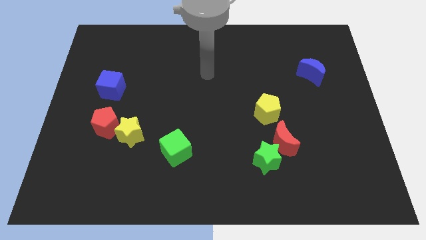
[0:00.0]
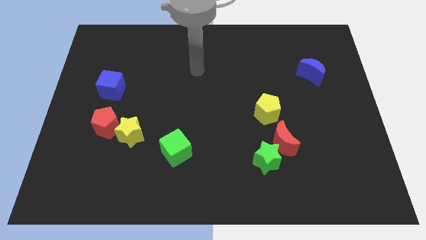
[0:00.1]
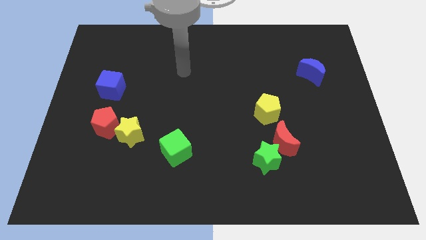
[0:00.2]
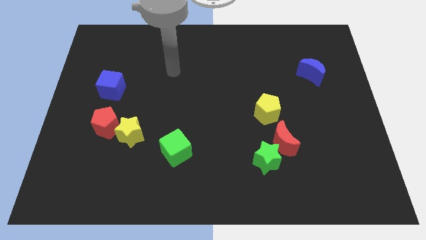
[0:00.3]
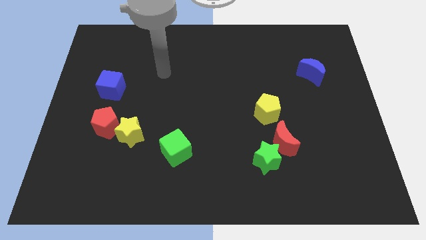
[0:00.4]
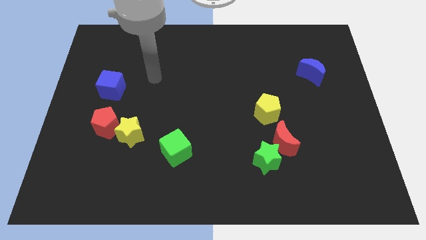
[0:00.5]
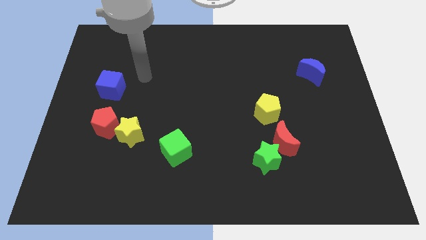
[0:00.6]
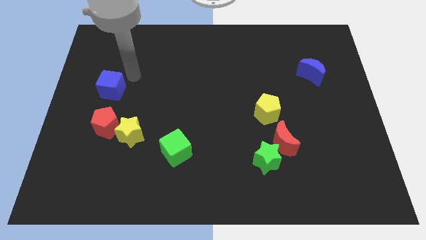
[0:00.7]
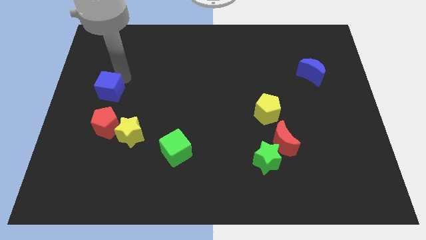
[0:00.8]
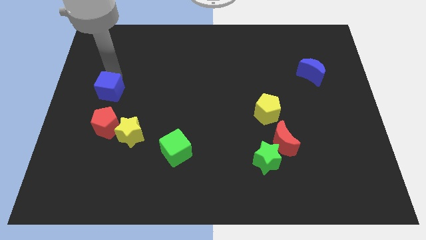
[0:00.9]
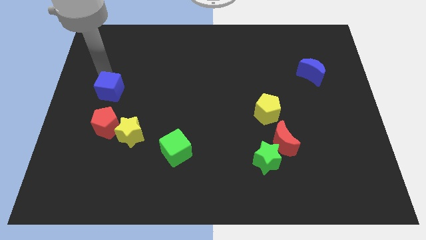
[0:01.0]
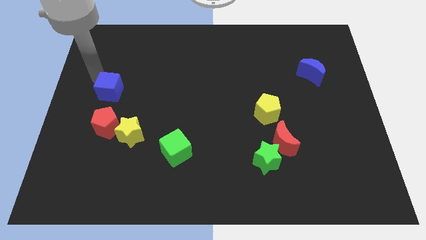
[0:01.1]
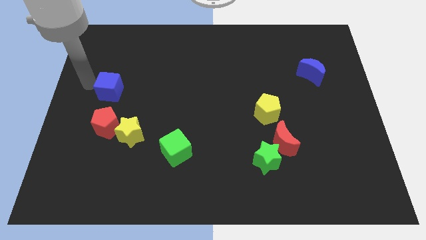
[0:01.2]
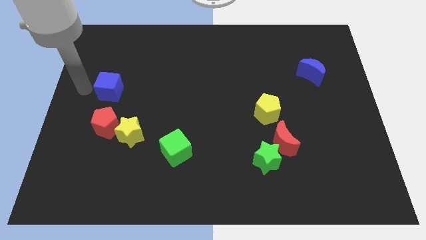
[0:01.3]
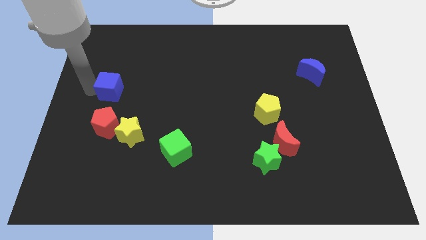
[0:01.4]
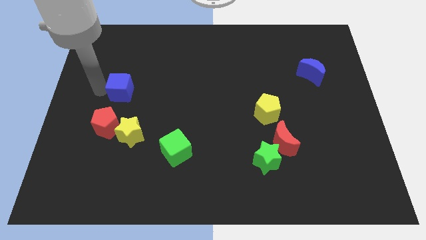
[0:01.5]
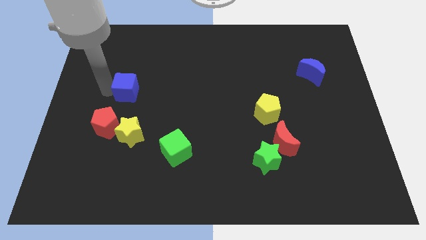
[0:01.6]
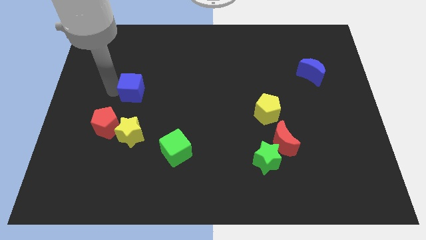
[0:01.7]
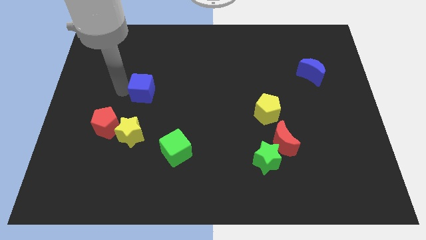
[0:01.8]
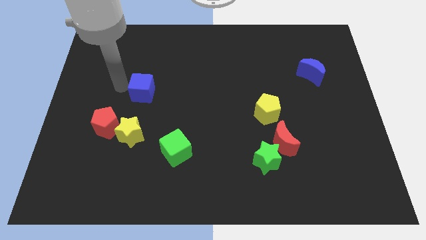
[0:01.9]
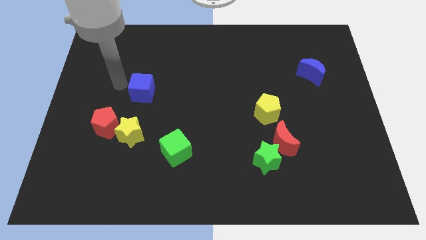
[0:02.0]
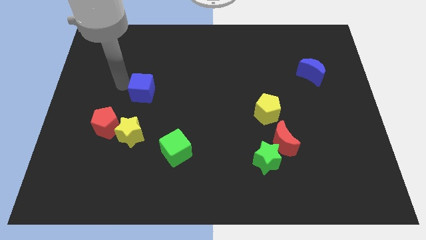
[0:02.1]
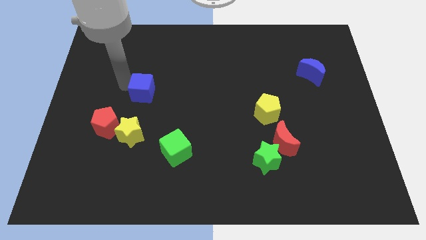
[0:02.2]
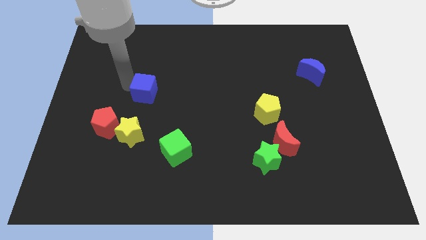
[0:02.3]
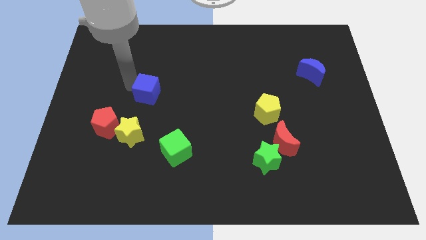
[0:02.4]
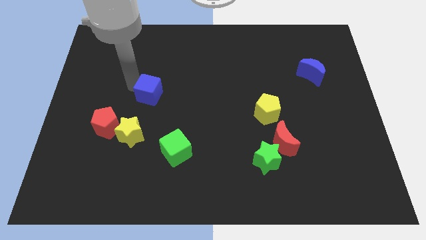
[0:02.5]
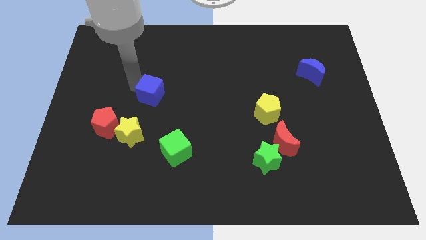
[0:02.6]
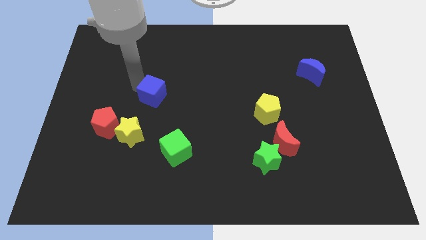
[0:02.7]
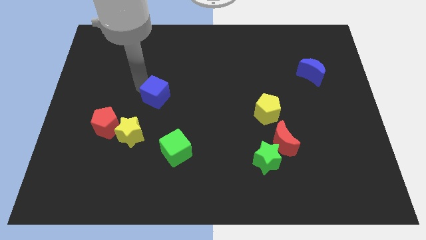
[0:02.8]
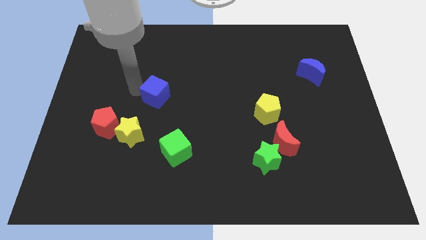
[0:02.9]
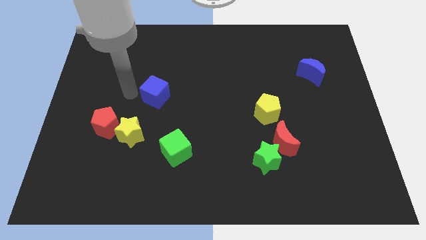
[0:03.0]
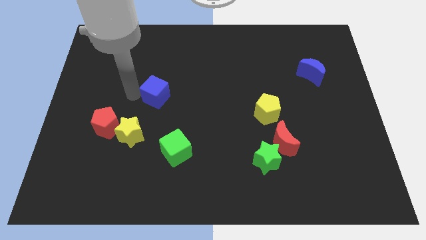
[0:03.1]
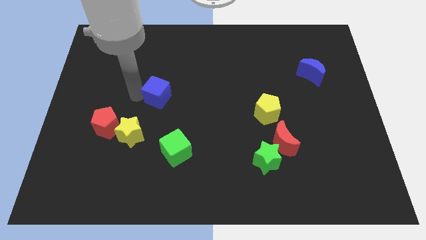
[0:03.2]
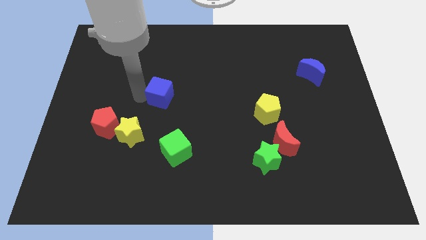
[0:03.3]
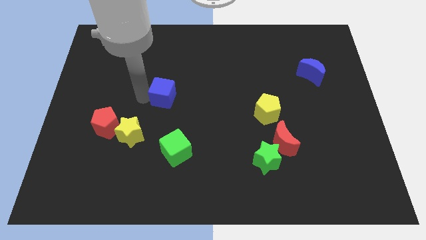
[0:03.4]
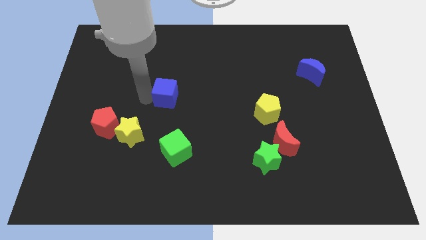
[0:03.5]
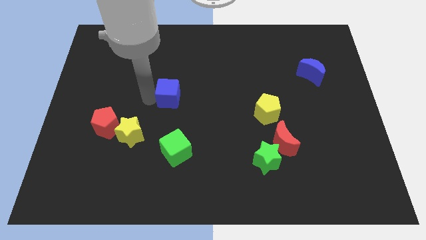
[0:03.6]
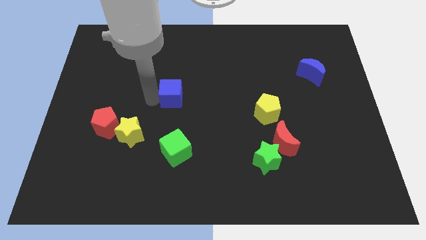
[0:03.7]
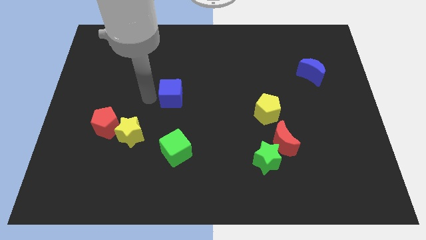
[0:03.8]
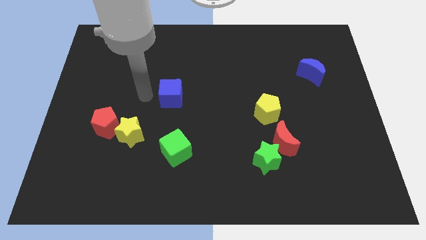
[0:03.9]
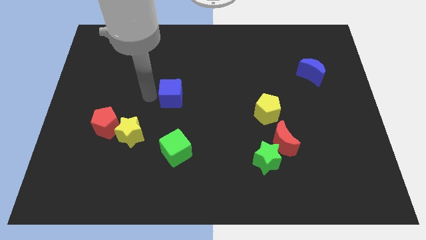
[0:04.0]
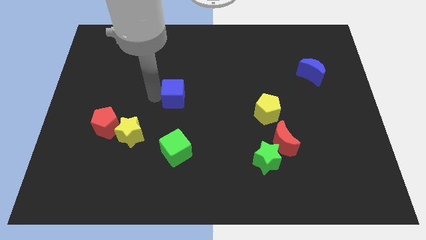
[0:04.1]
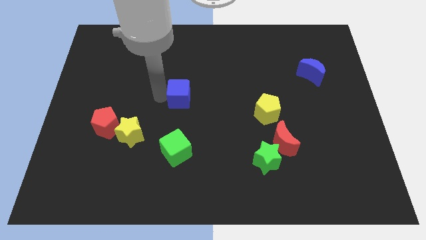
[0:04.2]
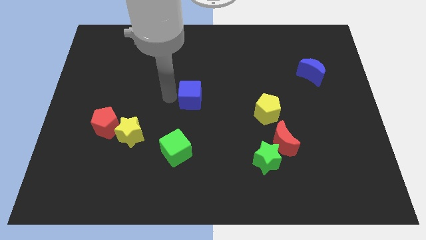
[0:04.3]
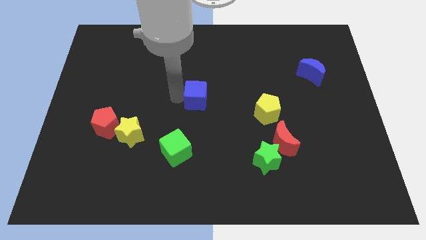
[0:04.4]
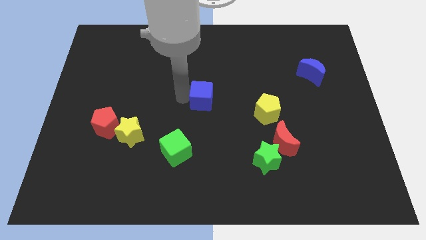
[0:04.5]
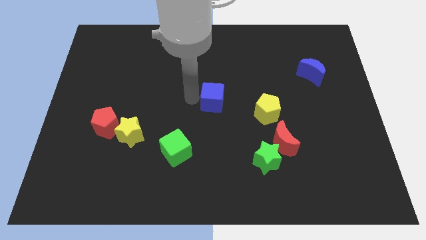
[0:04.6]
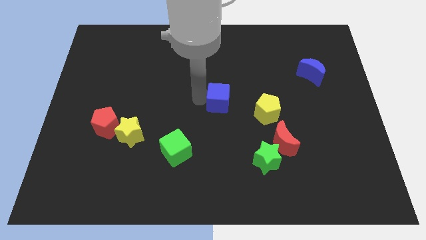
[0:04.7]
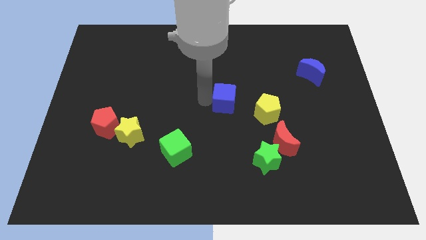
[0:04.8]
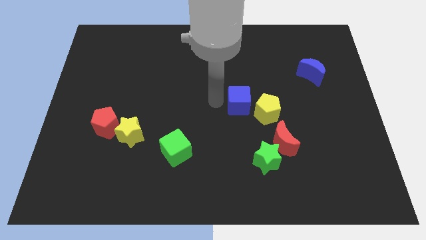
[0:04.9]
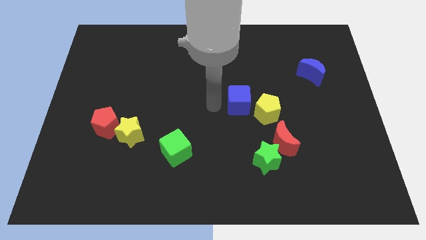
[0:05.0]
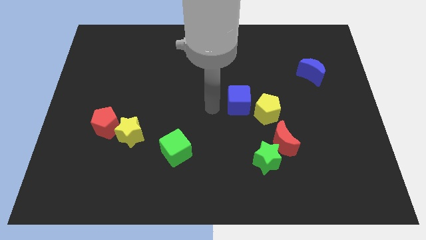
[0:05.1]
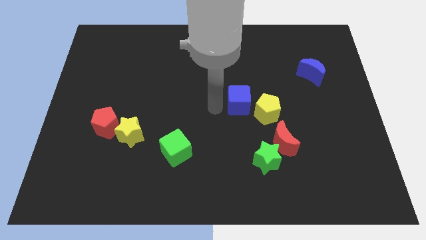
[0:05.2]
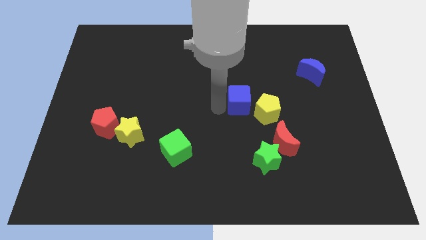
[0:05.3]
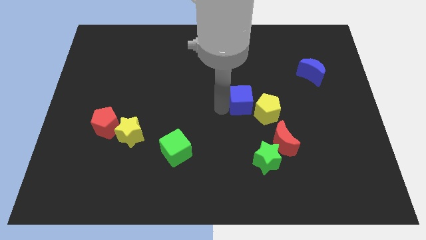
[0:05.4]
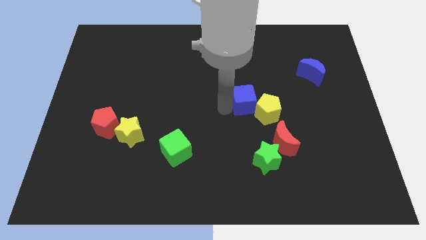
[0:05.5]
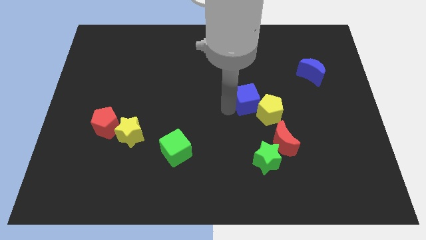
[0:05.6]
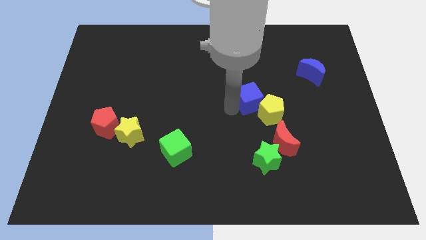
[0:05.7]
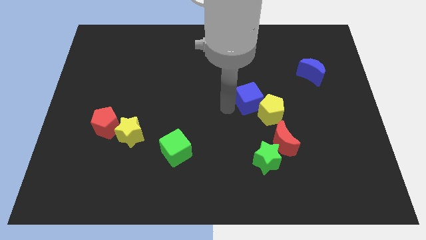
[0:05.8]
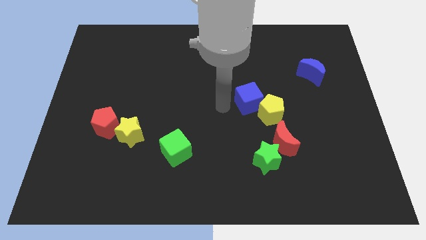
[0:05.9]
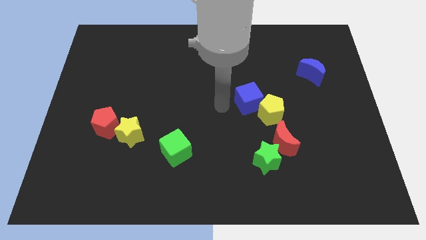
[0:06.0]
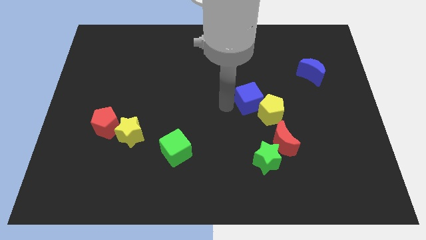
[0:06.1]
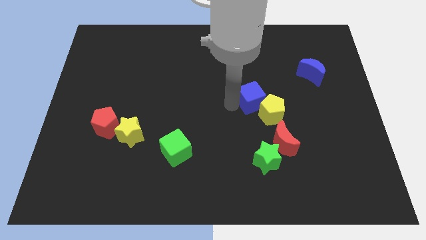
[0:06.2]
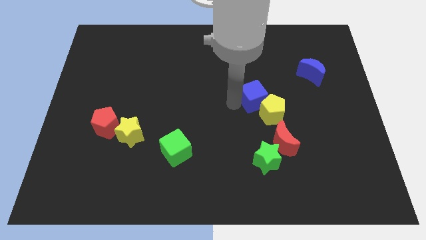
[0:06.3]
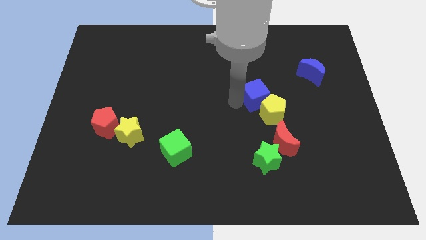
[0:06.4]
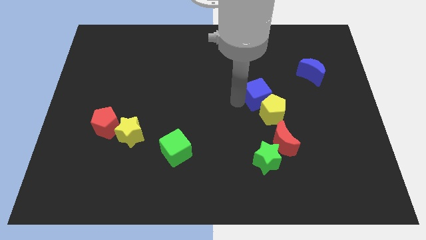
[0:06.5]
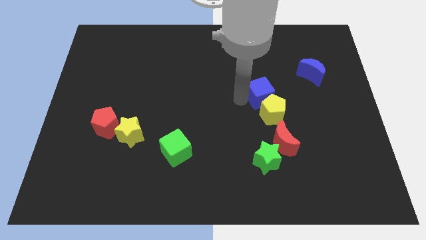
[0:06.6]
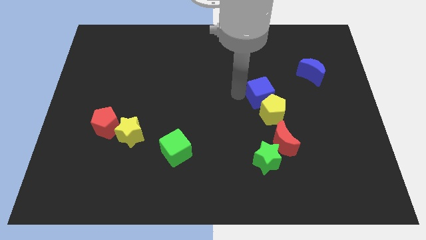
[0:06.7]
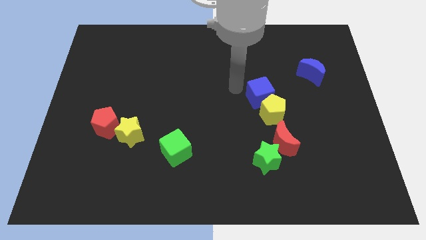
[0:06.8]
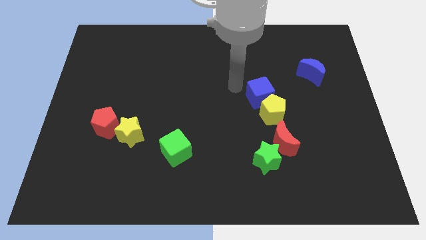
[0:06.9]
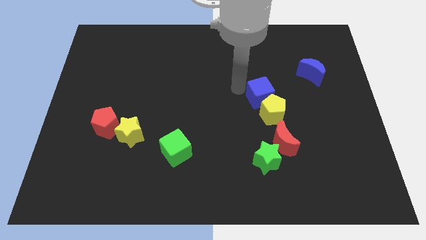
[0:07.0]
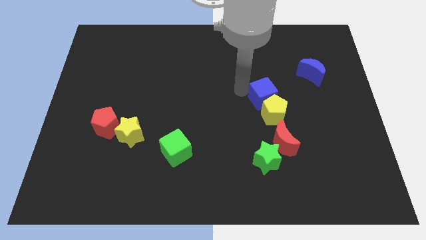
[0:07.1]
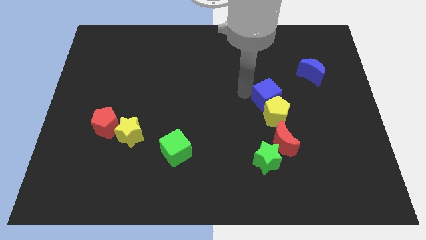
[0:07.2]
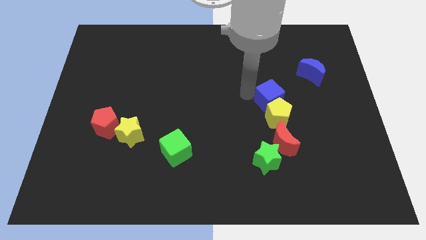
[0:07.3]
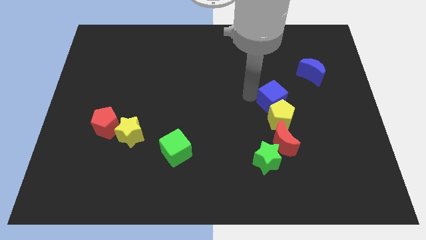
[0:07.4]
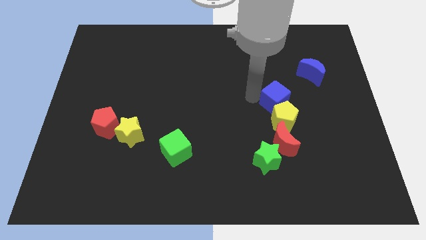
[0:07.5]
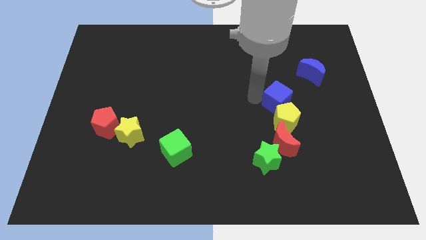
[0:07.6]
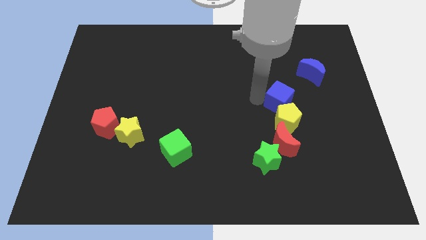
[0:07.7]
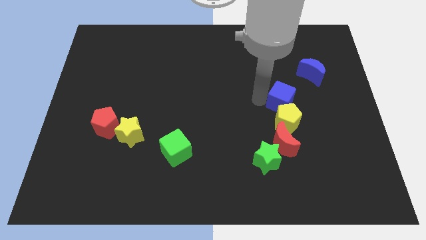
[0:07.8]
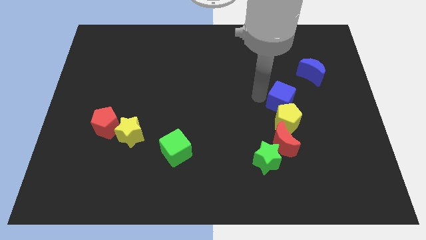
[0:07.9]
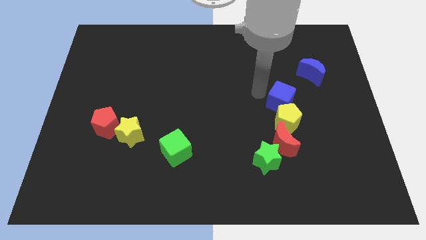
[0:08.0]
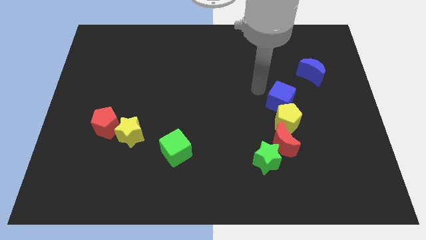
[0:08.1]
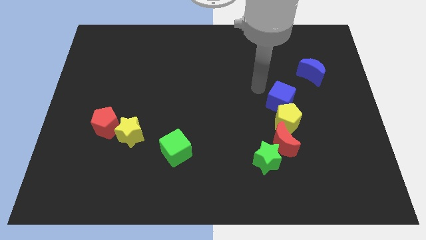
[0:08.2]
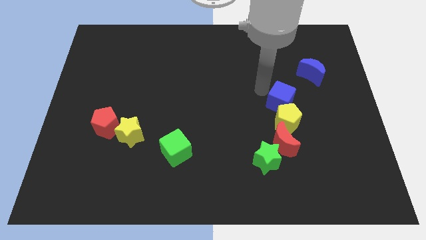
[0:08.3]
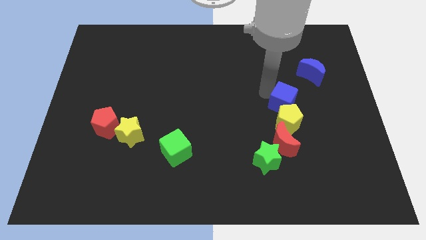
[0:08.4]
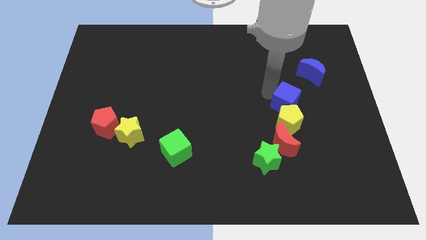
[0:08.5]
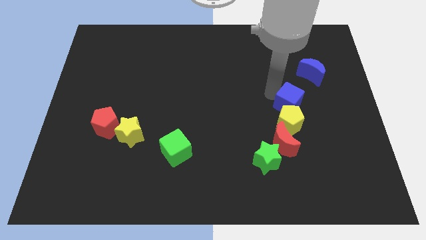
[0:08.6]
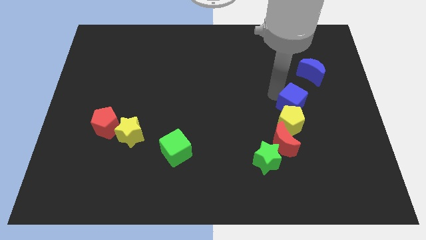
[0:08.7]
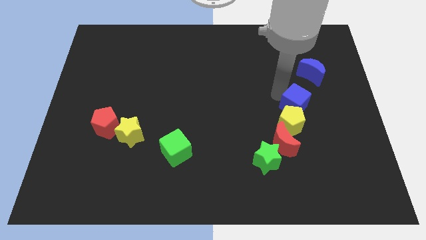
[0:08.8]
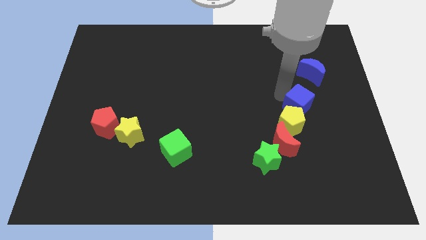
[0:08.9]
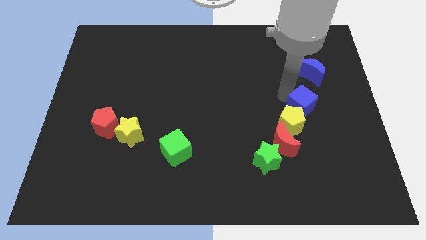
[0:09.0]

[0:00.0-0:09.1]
move the blue cube diagonally up and to the right of the red moon
